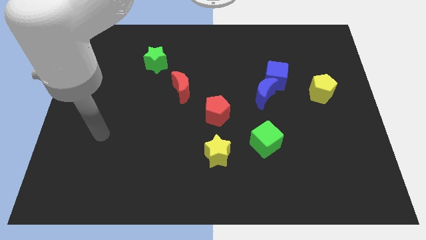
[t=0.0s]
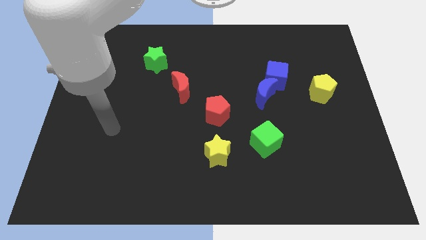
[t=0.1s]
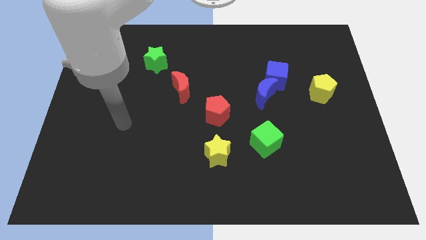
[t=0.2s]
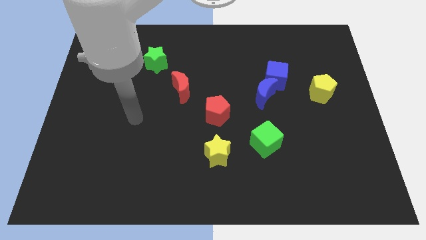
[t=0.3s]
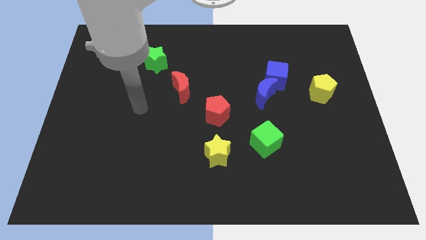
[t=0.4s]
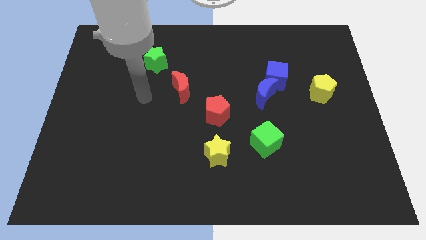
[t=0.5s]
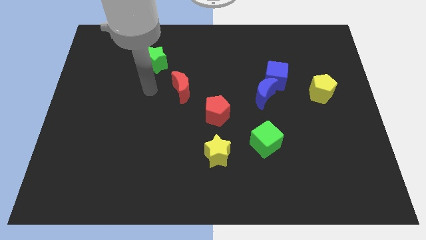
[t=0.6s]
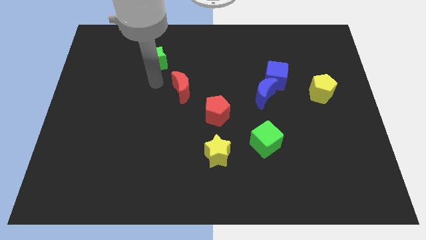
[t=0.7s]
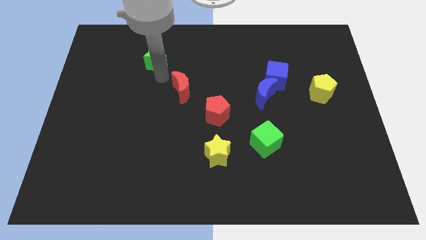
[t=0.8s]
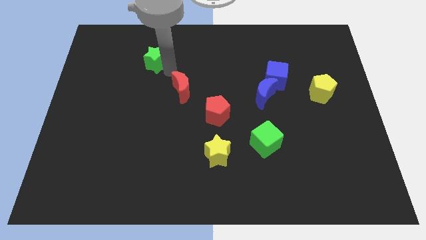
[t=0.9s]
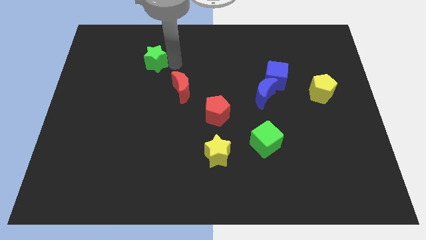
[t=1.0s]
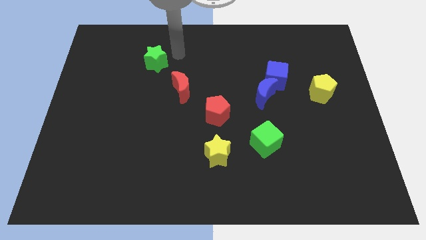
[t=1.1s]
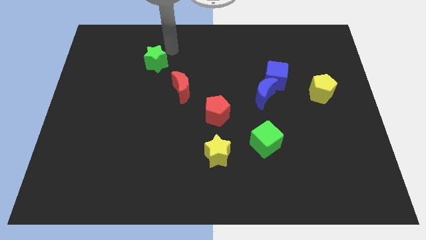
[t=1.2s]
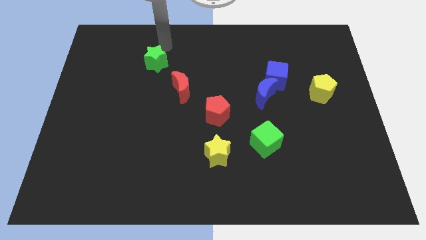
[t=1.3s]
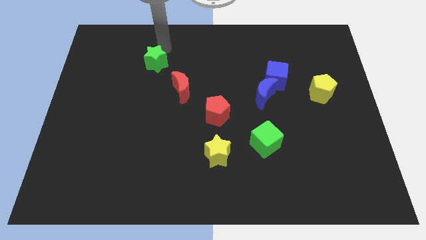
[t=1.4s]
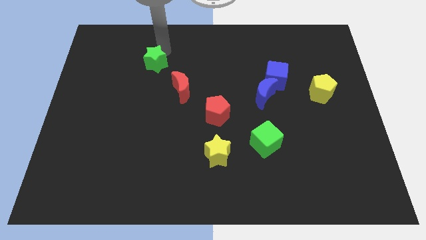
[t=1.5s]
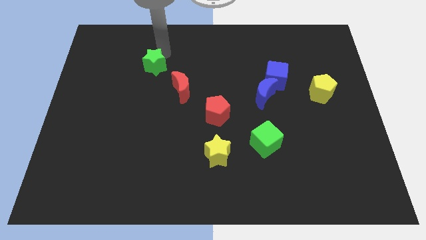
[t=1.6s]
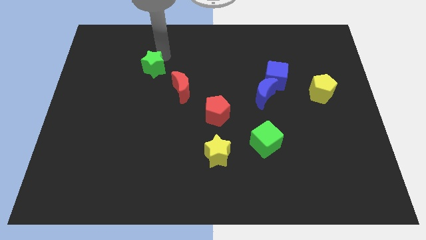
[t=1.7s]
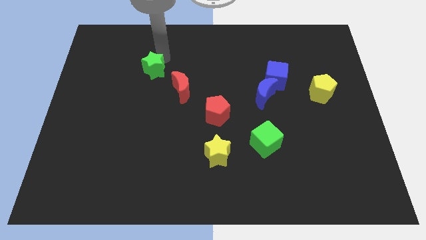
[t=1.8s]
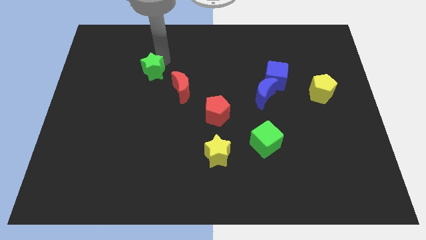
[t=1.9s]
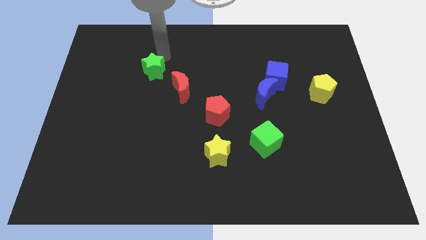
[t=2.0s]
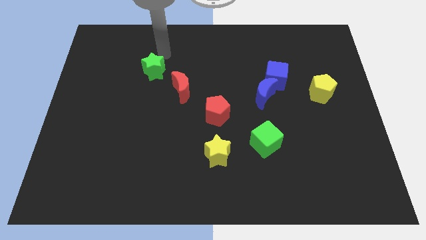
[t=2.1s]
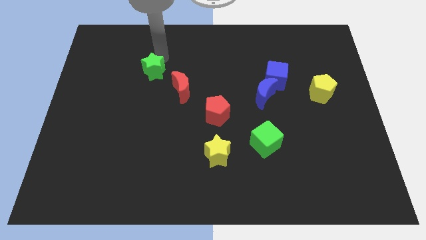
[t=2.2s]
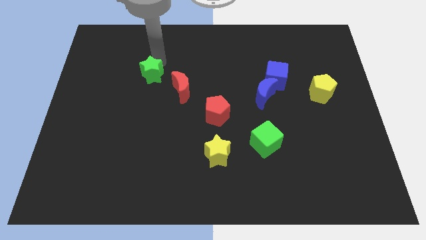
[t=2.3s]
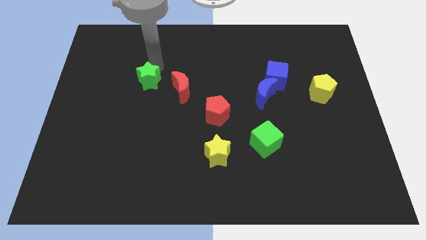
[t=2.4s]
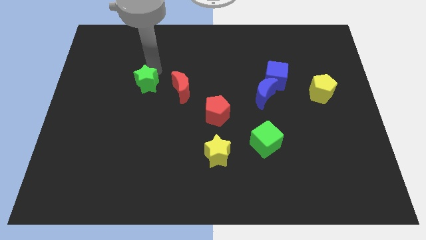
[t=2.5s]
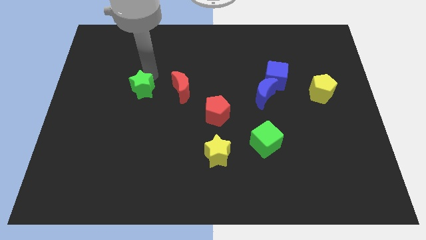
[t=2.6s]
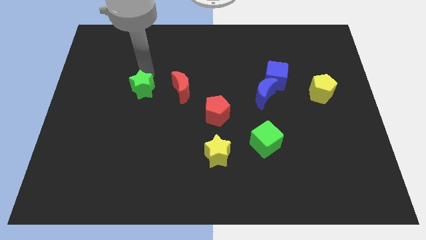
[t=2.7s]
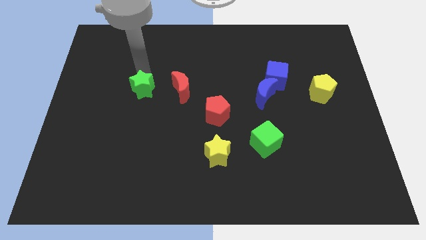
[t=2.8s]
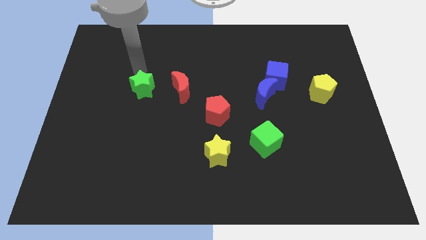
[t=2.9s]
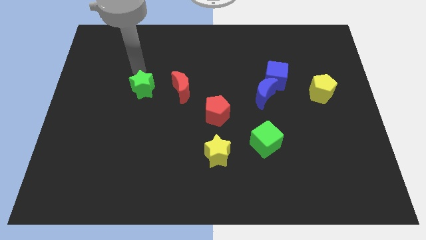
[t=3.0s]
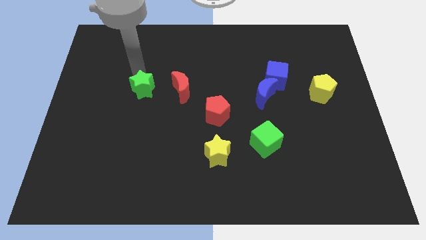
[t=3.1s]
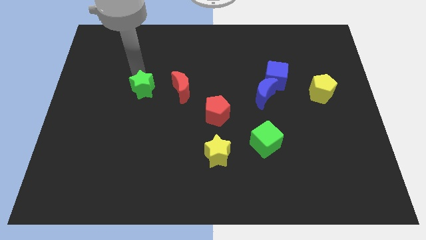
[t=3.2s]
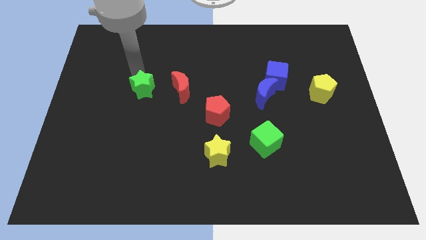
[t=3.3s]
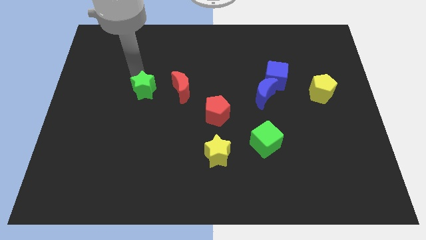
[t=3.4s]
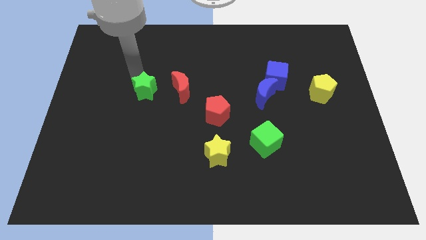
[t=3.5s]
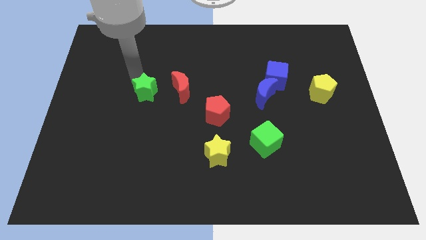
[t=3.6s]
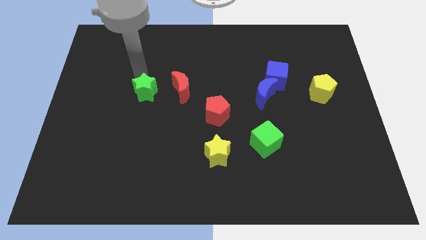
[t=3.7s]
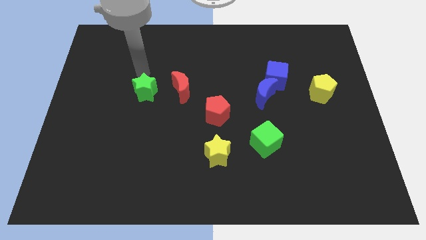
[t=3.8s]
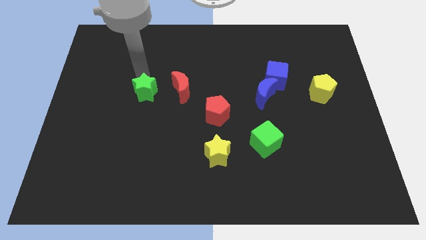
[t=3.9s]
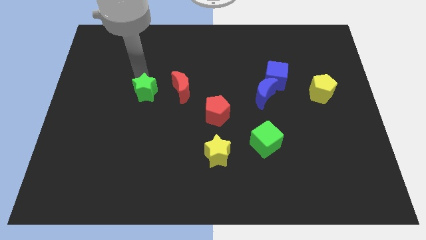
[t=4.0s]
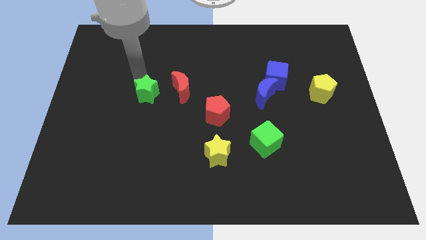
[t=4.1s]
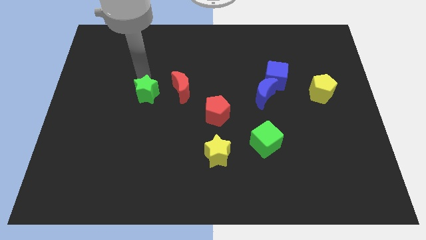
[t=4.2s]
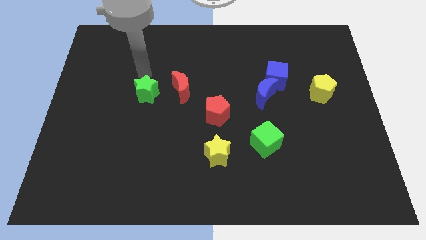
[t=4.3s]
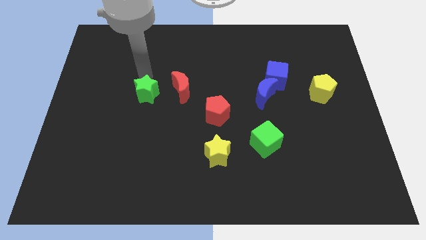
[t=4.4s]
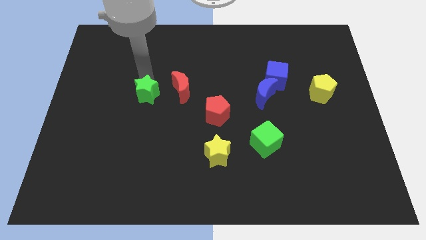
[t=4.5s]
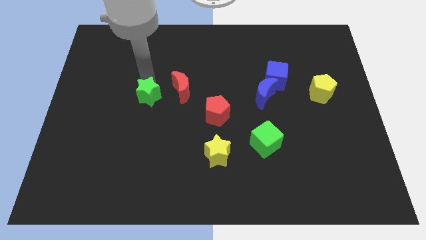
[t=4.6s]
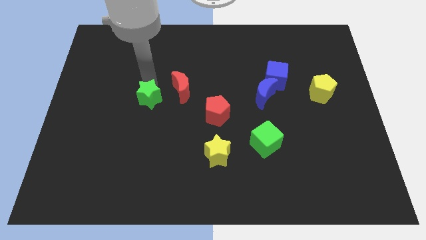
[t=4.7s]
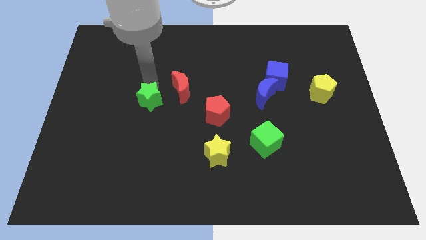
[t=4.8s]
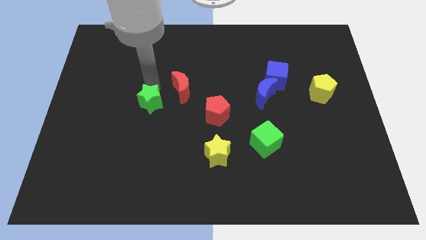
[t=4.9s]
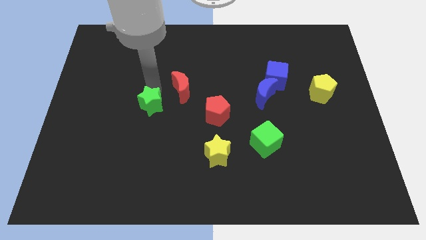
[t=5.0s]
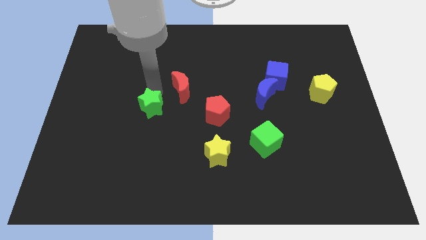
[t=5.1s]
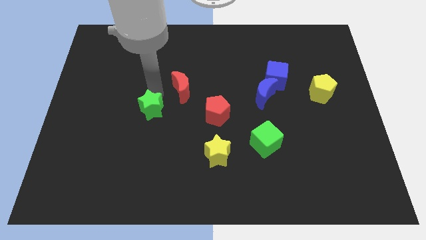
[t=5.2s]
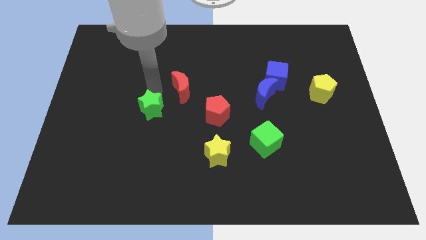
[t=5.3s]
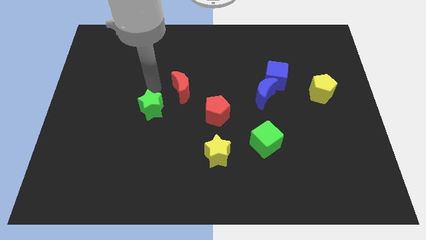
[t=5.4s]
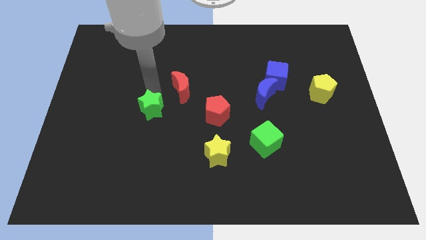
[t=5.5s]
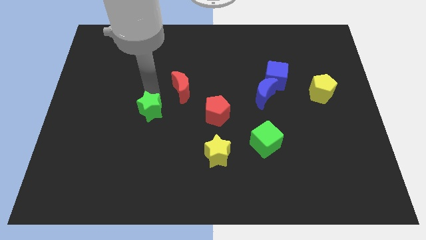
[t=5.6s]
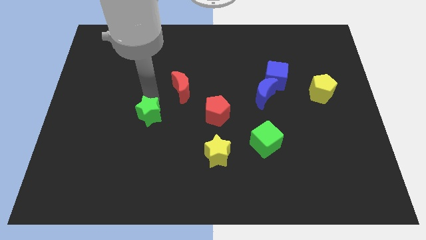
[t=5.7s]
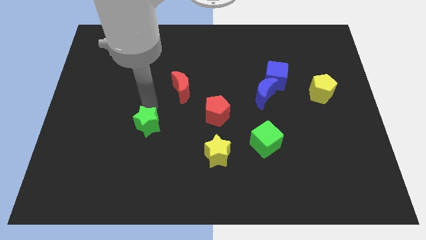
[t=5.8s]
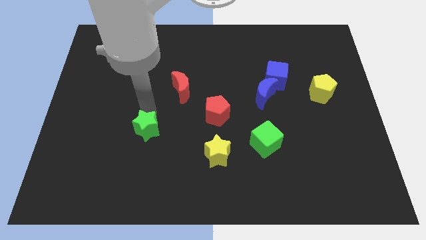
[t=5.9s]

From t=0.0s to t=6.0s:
slide the green star downwards

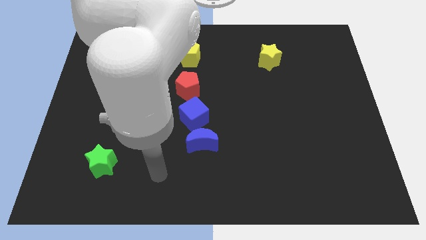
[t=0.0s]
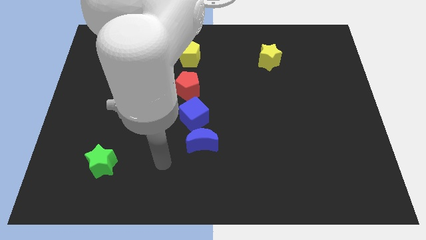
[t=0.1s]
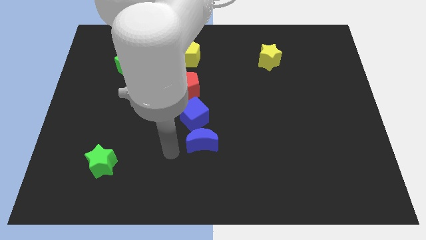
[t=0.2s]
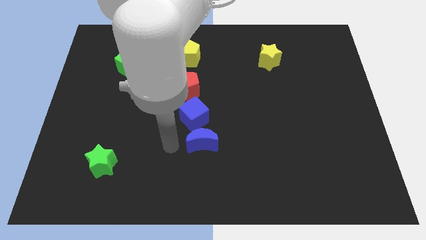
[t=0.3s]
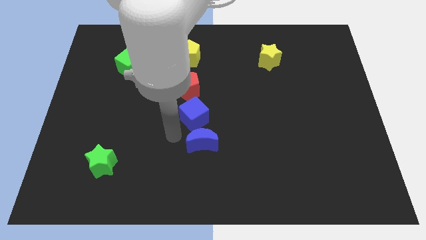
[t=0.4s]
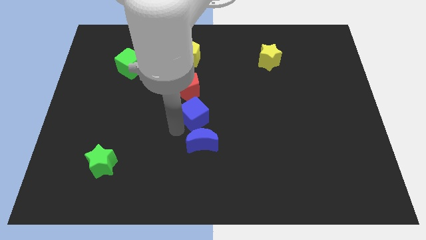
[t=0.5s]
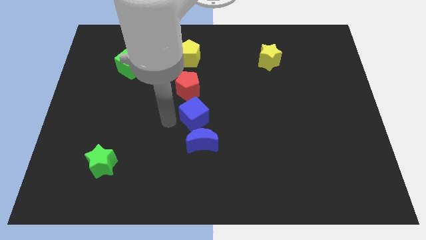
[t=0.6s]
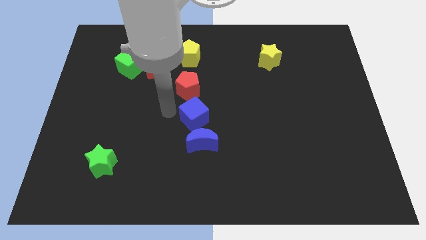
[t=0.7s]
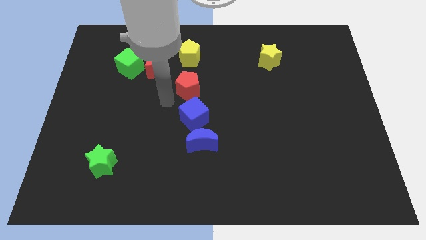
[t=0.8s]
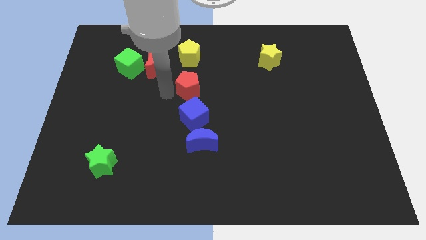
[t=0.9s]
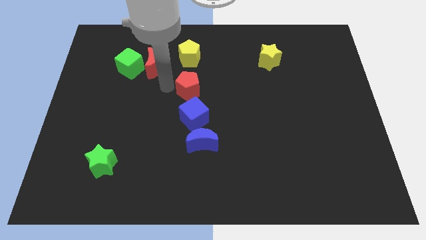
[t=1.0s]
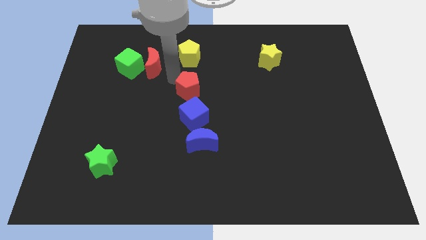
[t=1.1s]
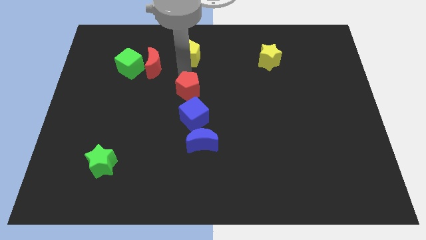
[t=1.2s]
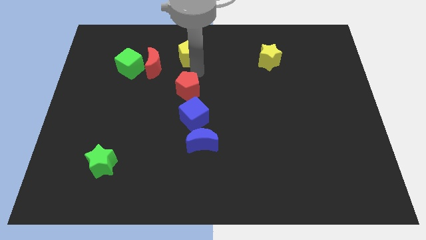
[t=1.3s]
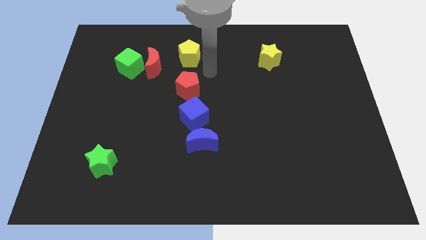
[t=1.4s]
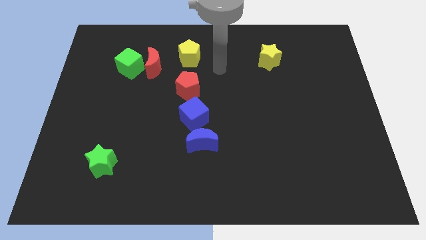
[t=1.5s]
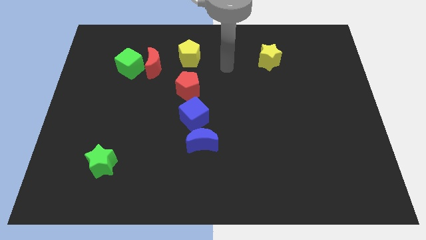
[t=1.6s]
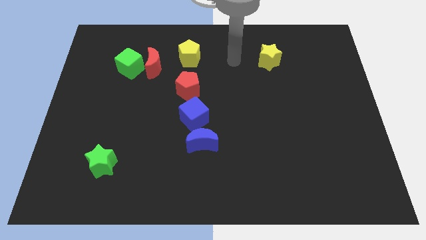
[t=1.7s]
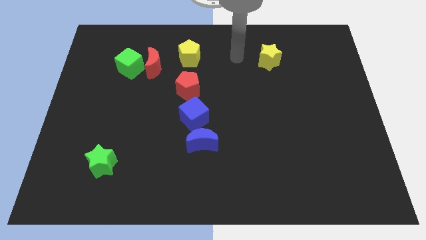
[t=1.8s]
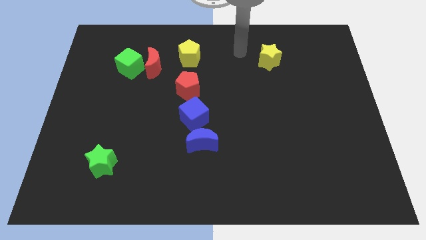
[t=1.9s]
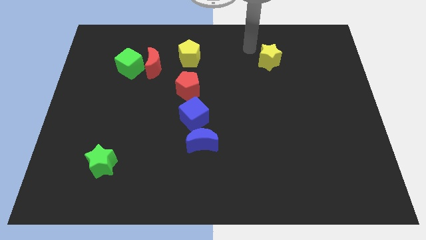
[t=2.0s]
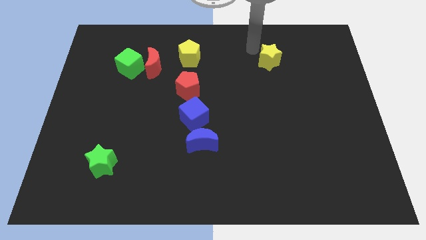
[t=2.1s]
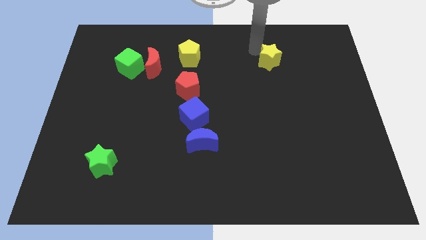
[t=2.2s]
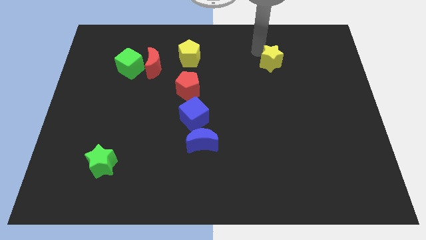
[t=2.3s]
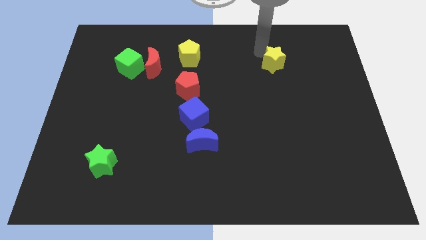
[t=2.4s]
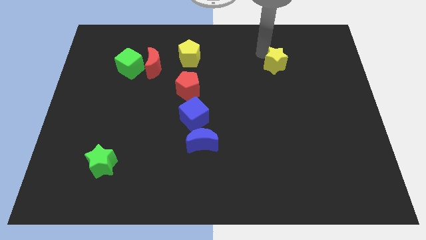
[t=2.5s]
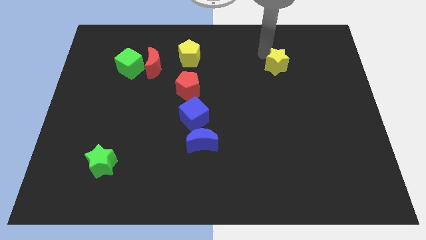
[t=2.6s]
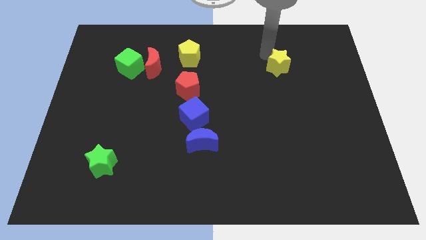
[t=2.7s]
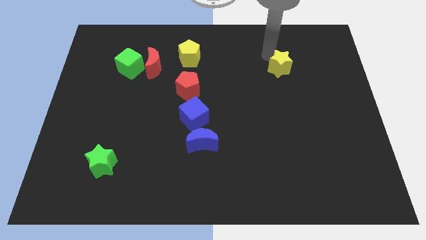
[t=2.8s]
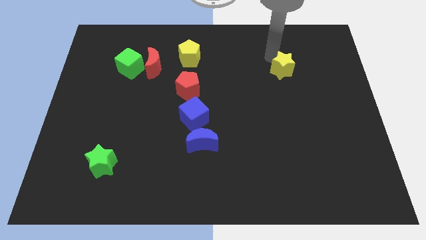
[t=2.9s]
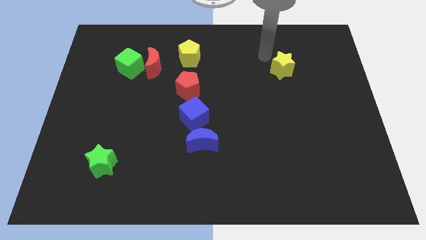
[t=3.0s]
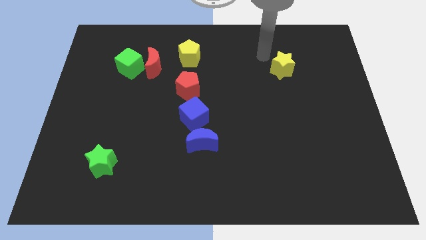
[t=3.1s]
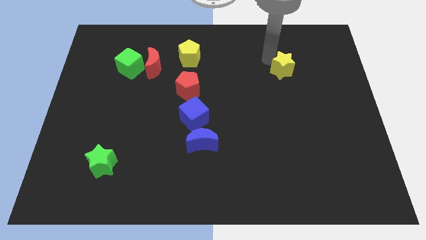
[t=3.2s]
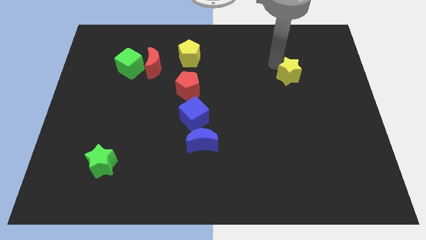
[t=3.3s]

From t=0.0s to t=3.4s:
push the yellow star diagonally downwards and to the right a bit
